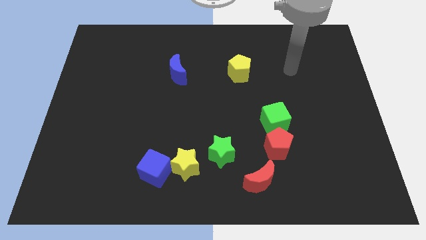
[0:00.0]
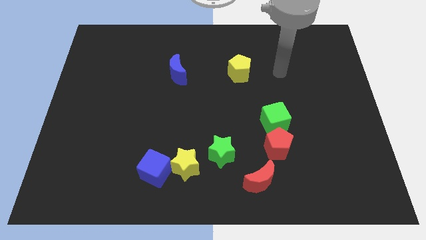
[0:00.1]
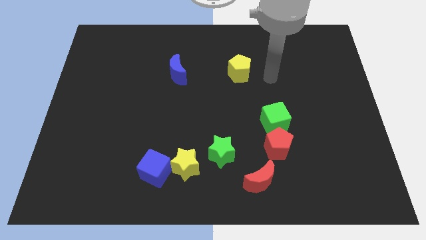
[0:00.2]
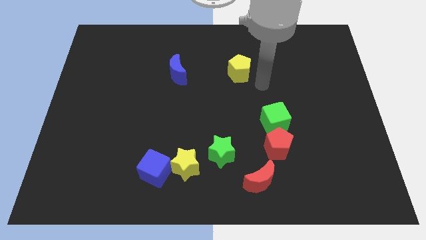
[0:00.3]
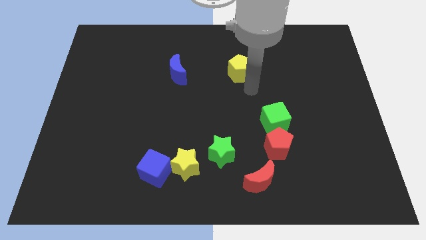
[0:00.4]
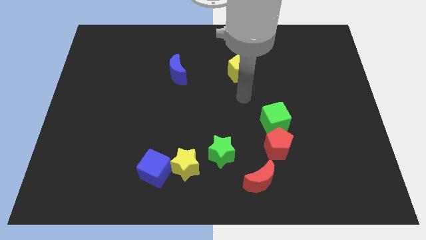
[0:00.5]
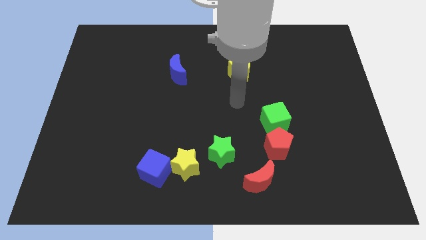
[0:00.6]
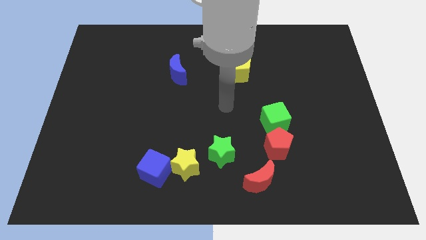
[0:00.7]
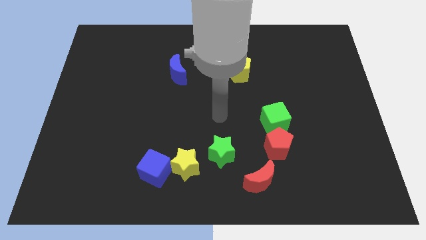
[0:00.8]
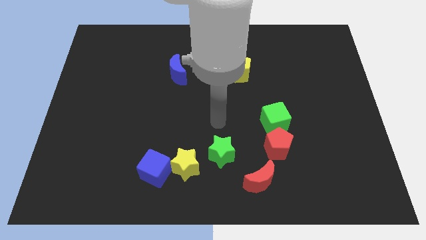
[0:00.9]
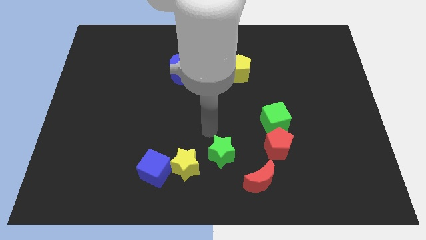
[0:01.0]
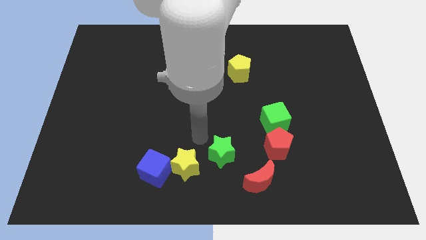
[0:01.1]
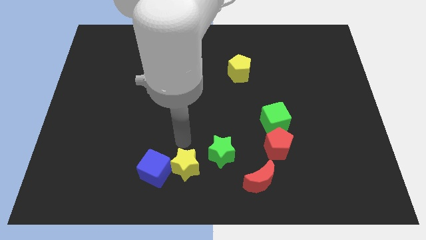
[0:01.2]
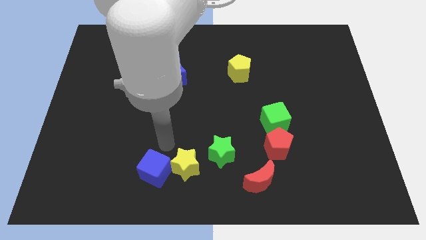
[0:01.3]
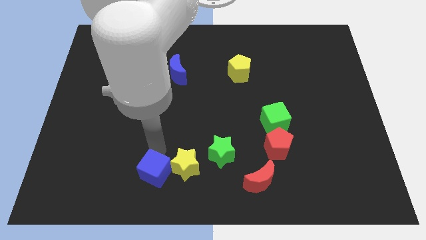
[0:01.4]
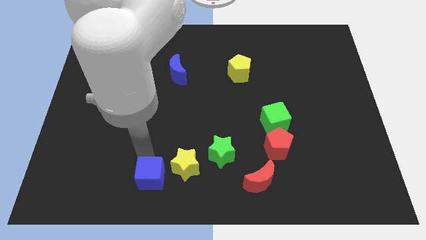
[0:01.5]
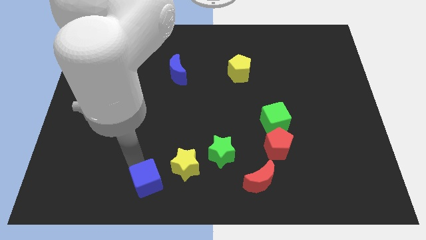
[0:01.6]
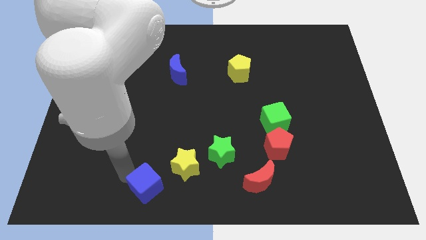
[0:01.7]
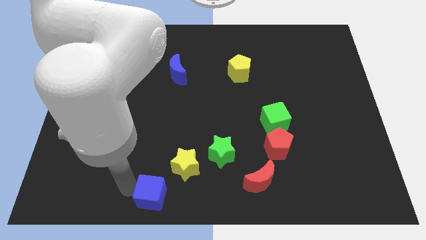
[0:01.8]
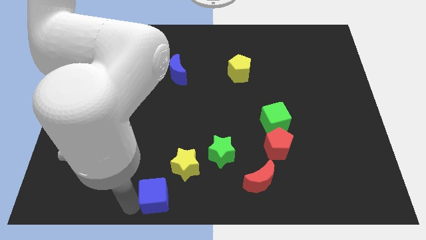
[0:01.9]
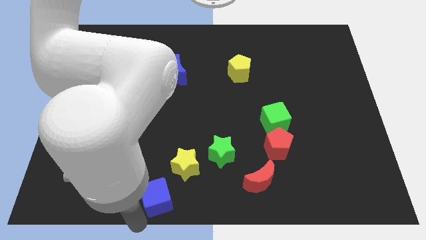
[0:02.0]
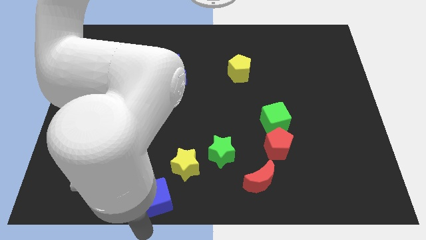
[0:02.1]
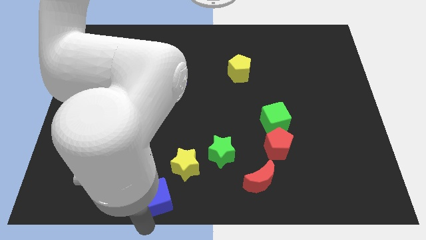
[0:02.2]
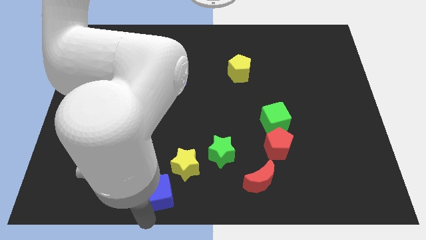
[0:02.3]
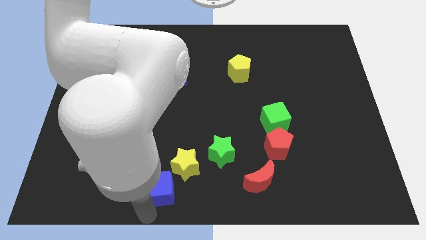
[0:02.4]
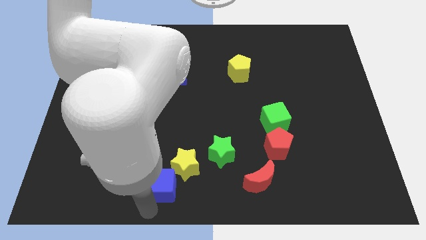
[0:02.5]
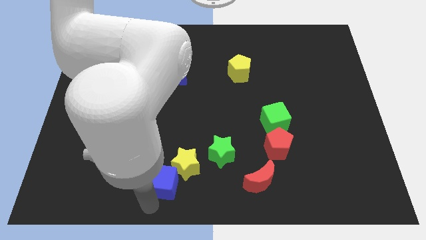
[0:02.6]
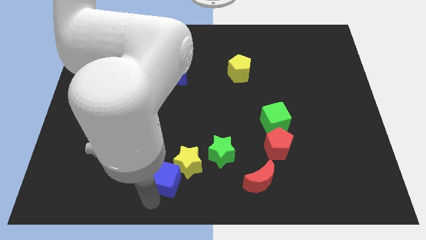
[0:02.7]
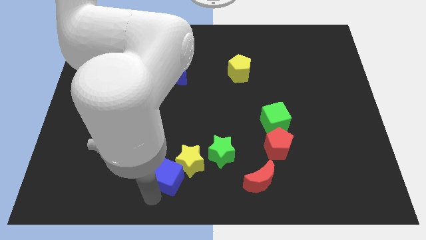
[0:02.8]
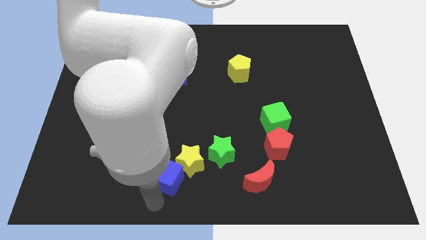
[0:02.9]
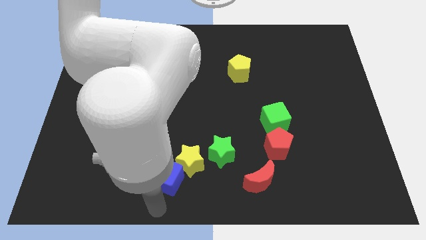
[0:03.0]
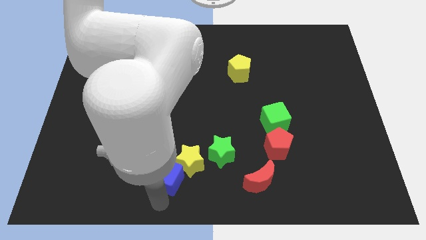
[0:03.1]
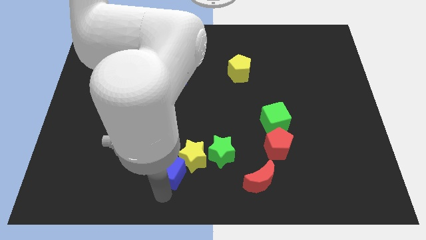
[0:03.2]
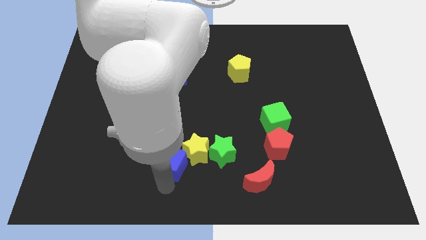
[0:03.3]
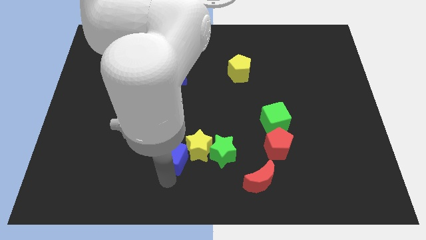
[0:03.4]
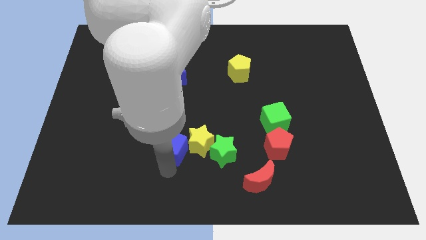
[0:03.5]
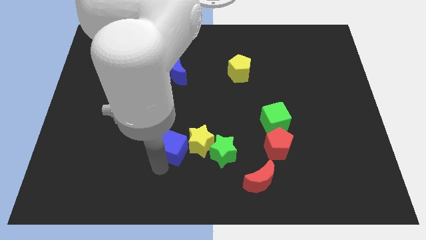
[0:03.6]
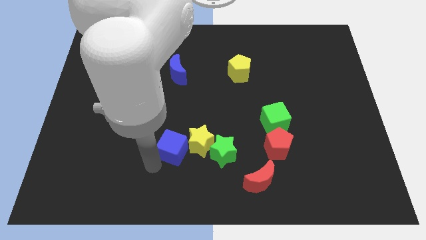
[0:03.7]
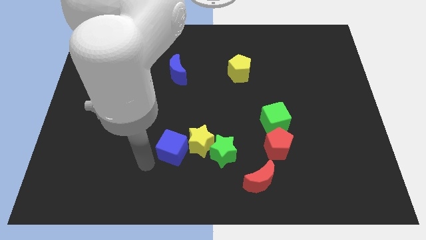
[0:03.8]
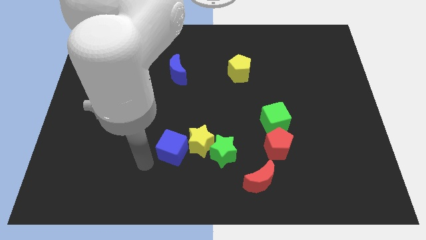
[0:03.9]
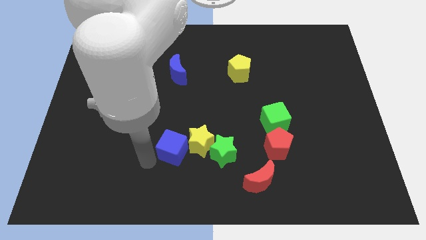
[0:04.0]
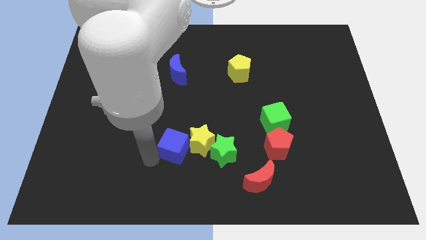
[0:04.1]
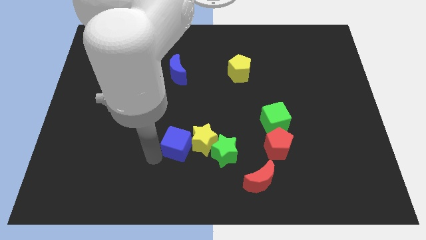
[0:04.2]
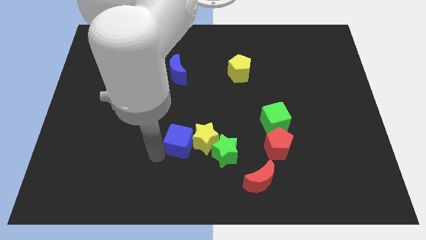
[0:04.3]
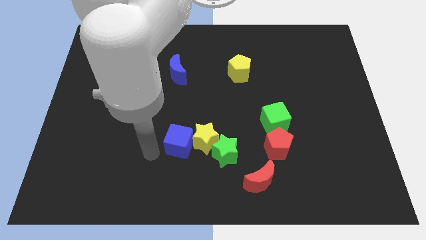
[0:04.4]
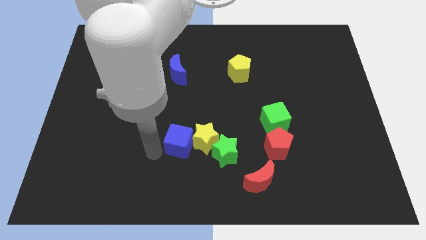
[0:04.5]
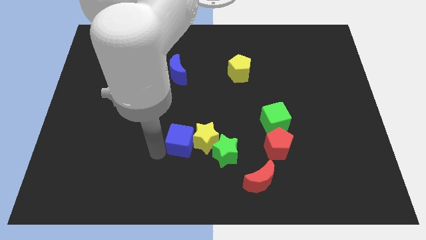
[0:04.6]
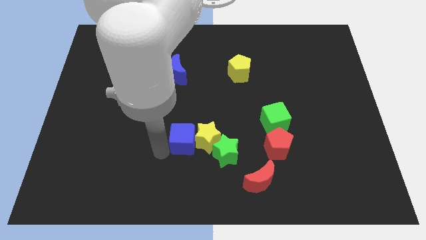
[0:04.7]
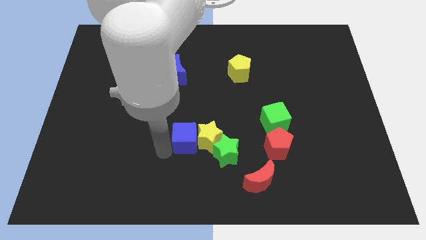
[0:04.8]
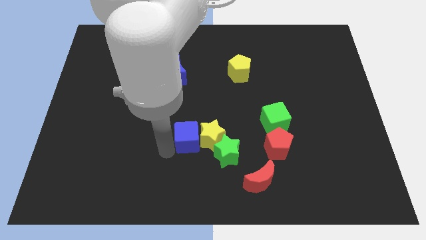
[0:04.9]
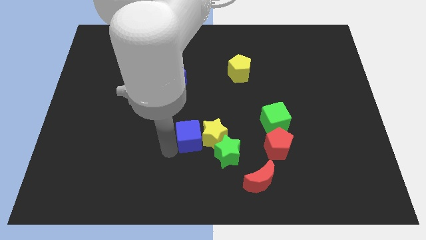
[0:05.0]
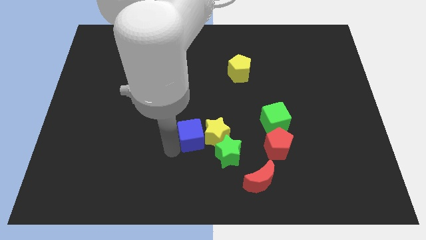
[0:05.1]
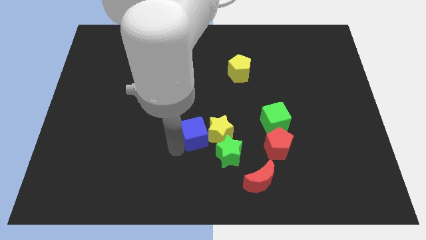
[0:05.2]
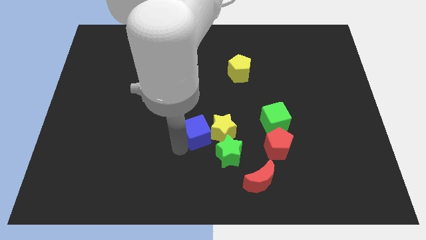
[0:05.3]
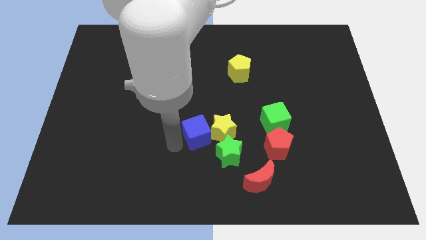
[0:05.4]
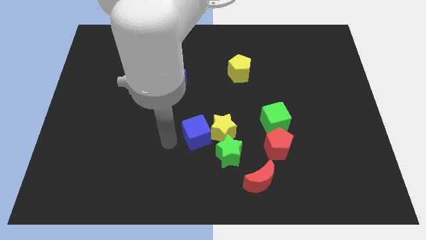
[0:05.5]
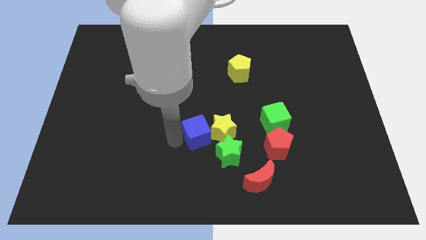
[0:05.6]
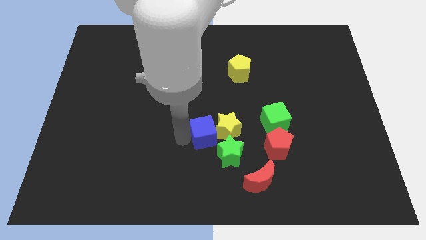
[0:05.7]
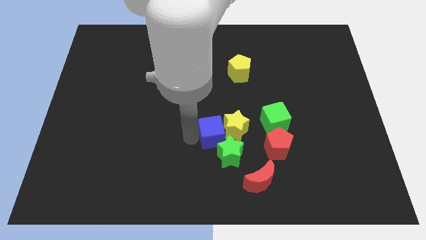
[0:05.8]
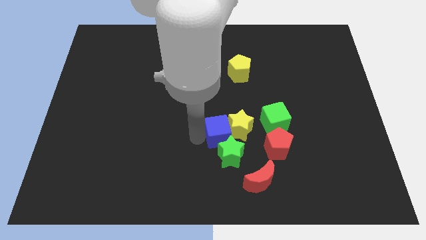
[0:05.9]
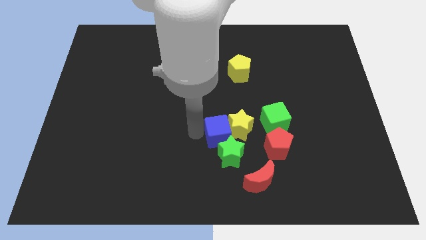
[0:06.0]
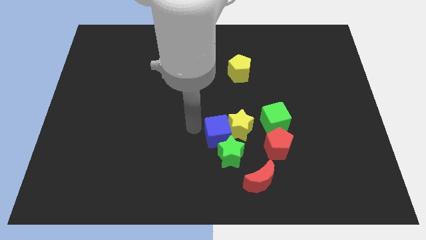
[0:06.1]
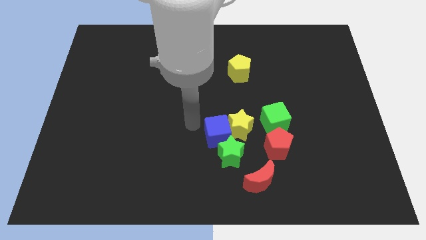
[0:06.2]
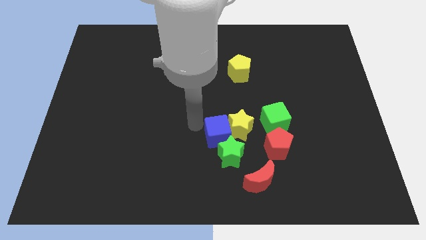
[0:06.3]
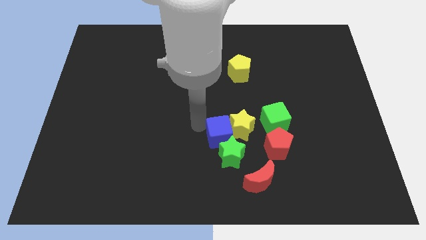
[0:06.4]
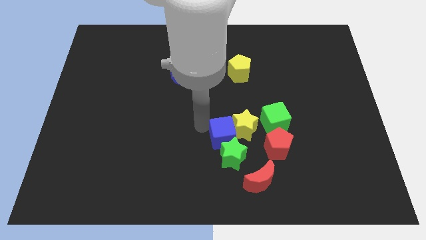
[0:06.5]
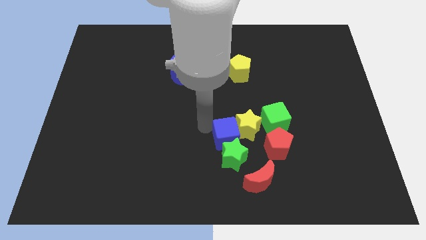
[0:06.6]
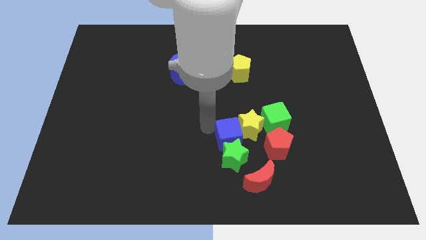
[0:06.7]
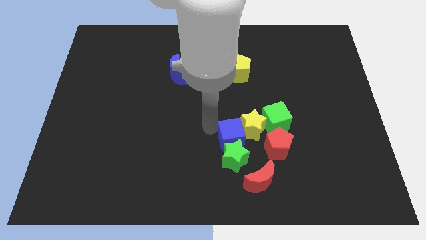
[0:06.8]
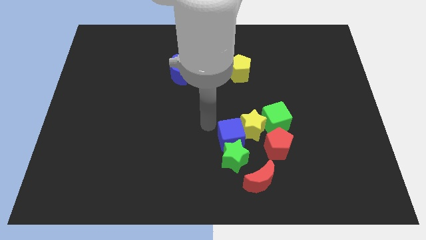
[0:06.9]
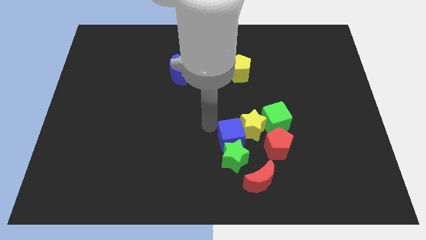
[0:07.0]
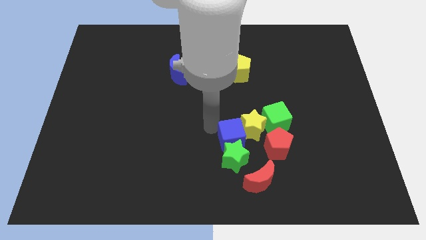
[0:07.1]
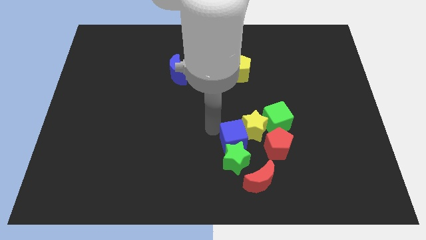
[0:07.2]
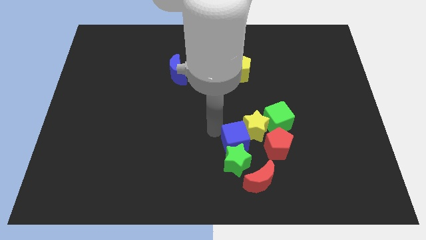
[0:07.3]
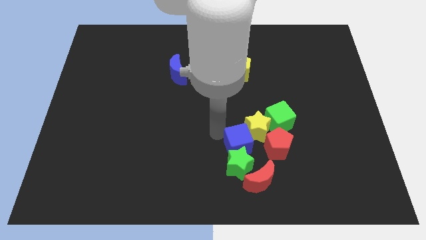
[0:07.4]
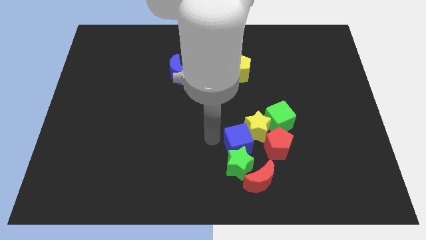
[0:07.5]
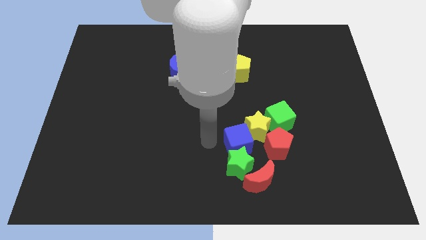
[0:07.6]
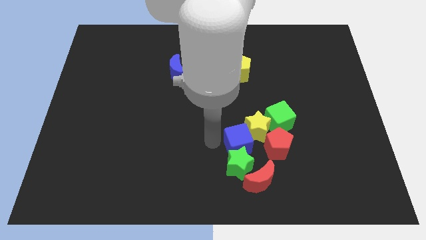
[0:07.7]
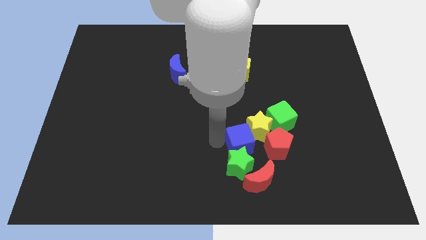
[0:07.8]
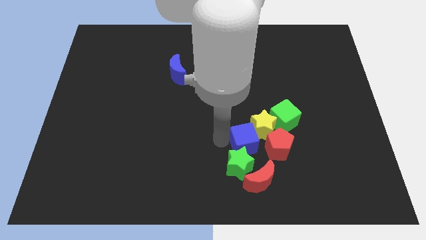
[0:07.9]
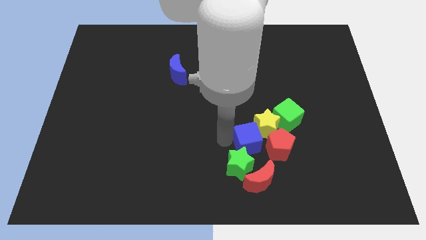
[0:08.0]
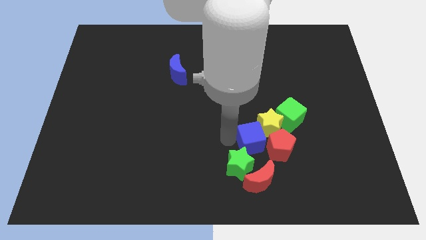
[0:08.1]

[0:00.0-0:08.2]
move the blue cube to the red pentagon
